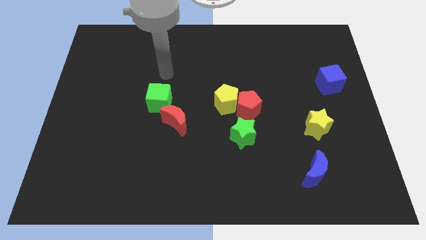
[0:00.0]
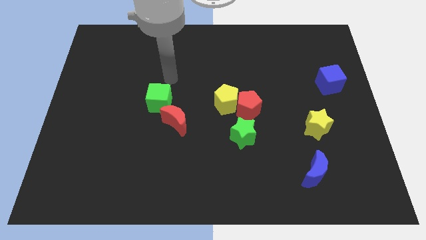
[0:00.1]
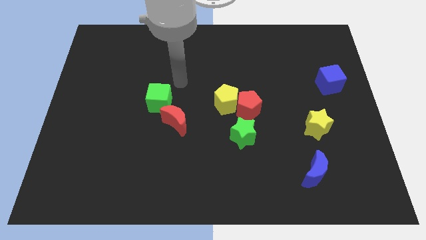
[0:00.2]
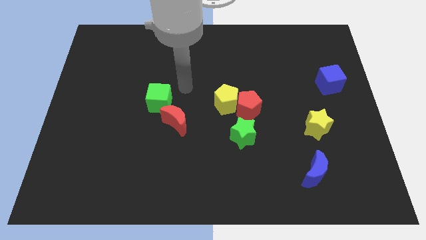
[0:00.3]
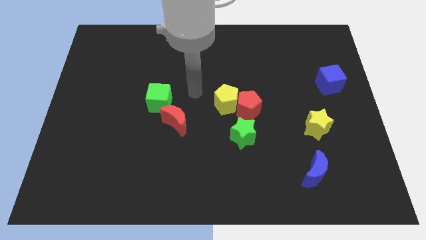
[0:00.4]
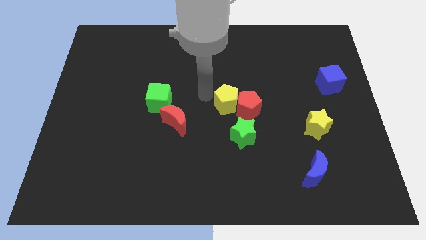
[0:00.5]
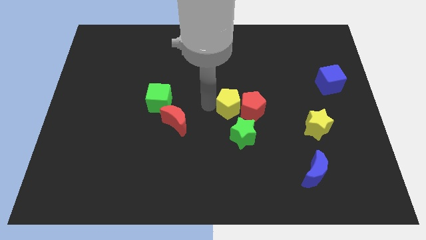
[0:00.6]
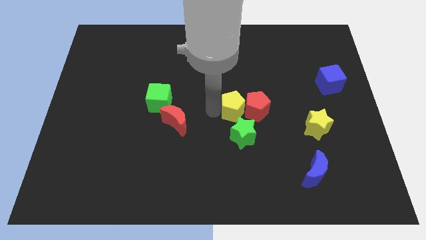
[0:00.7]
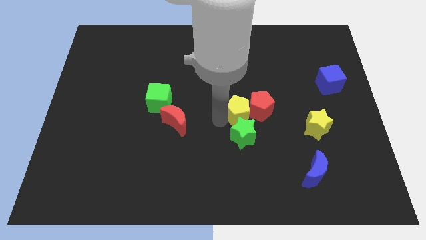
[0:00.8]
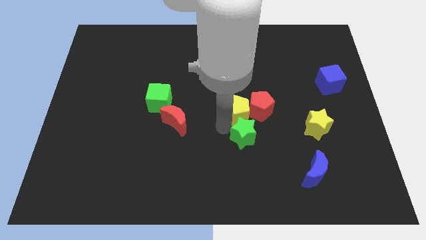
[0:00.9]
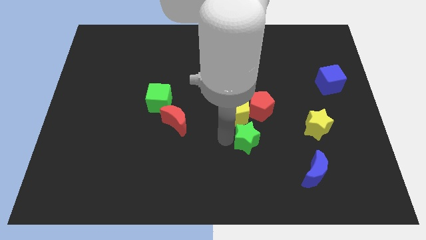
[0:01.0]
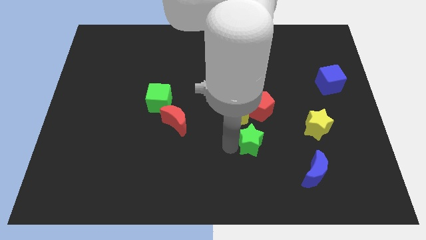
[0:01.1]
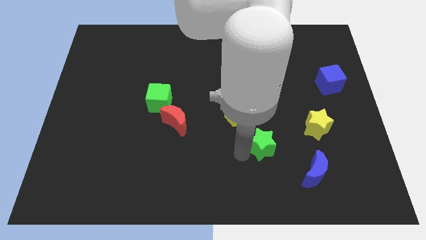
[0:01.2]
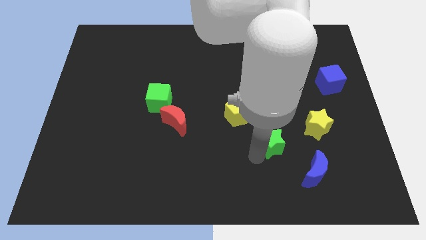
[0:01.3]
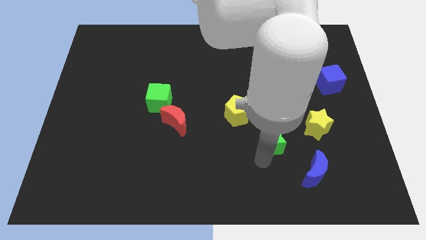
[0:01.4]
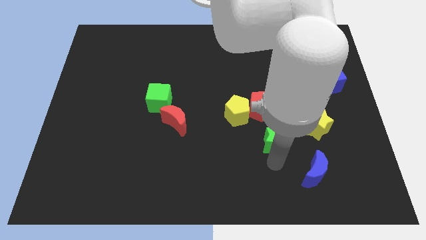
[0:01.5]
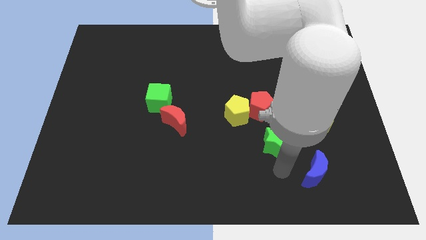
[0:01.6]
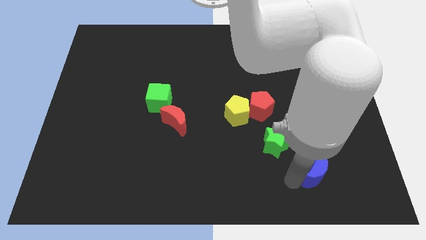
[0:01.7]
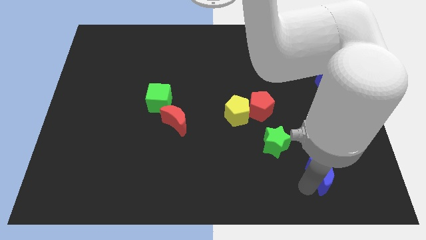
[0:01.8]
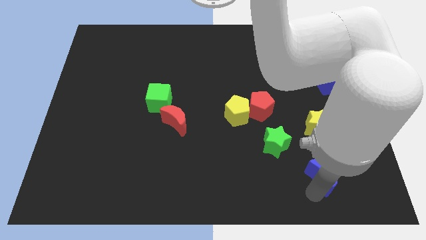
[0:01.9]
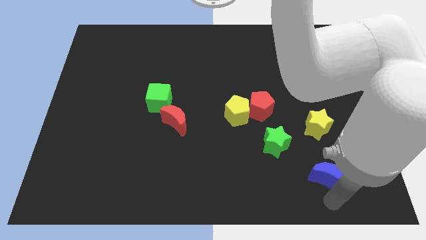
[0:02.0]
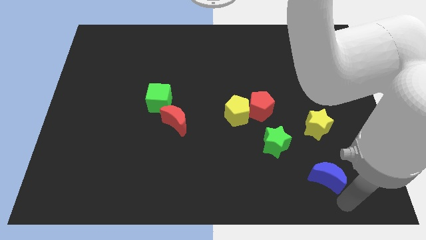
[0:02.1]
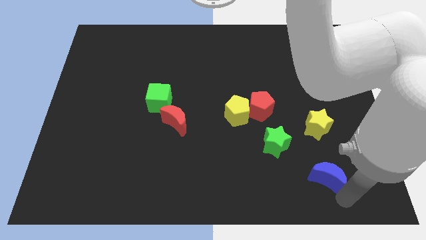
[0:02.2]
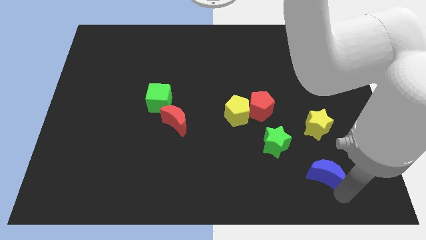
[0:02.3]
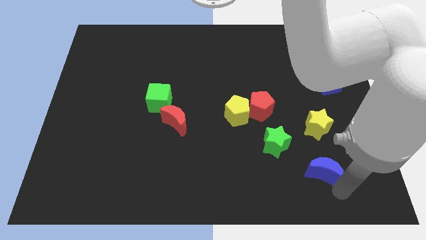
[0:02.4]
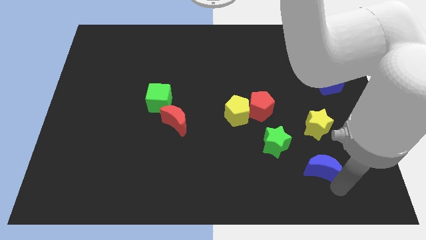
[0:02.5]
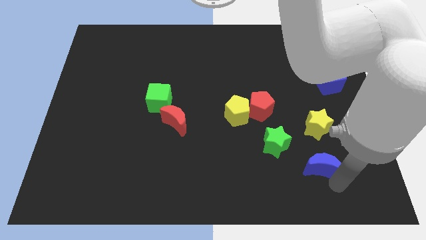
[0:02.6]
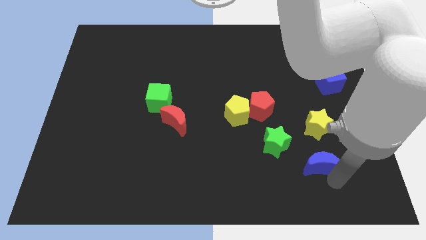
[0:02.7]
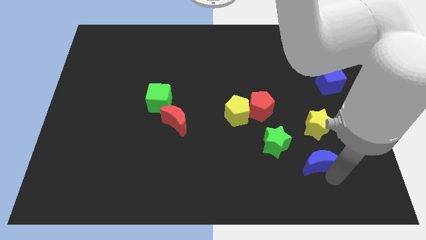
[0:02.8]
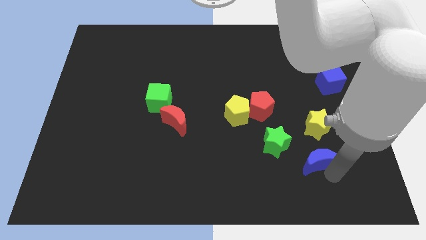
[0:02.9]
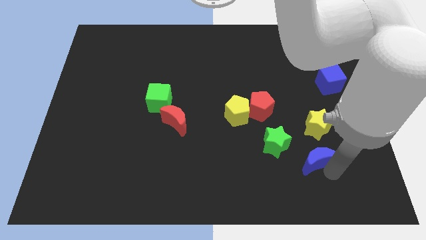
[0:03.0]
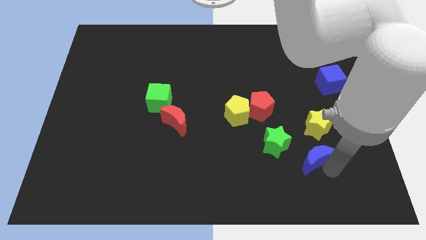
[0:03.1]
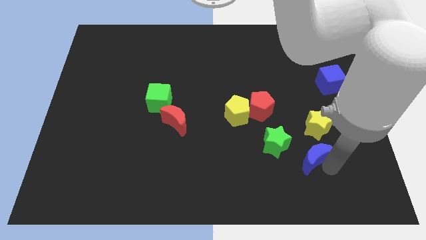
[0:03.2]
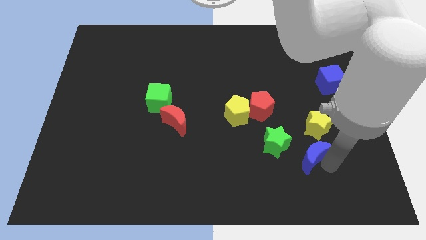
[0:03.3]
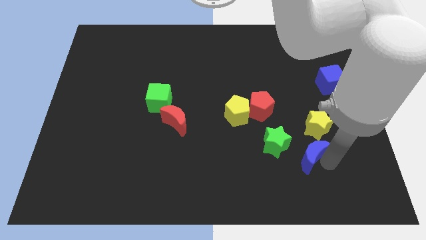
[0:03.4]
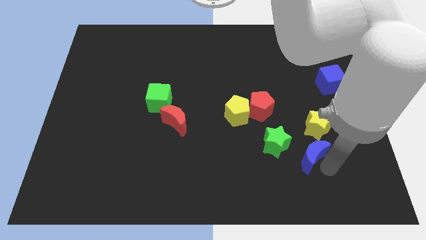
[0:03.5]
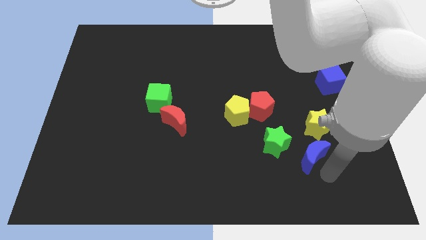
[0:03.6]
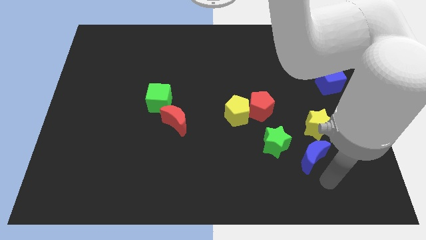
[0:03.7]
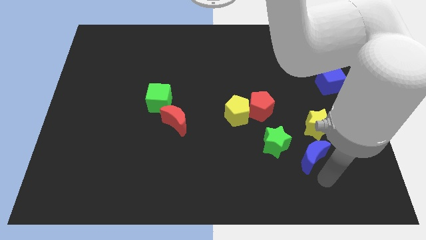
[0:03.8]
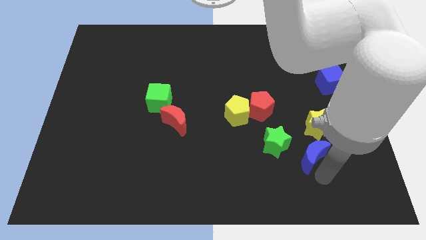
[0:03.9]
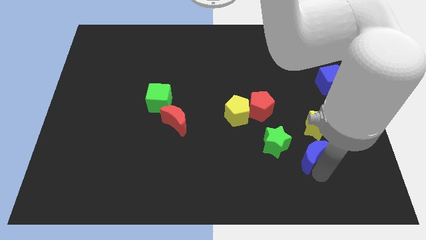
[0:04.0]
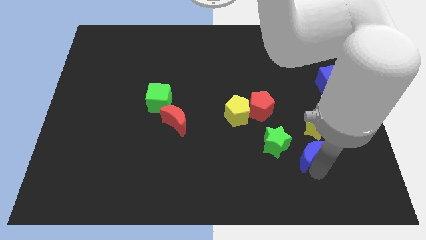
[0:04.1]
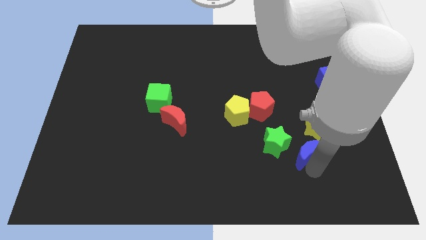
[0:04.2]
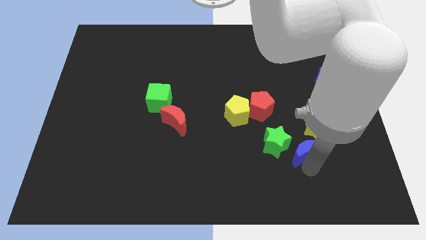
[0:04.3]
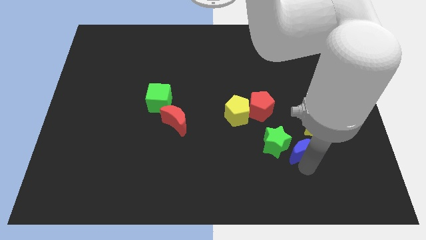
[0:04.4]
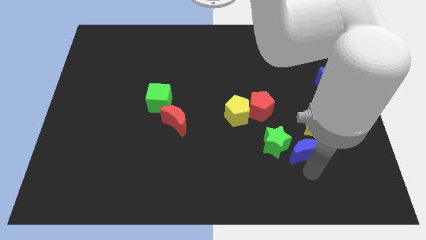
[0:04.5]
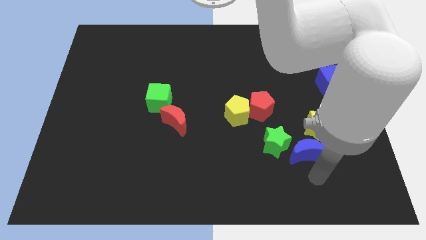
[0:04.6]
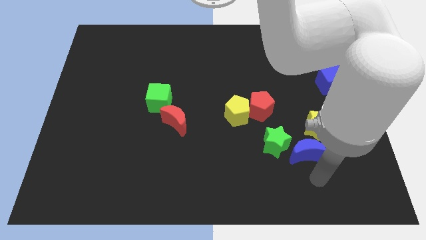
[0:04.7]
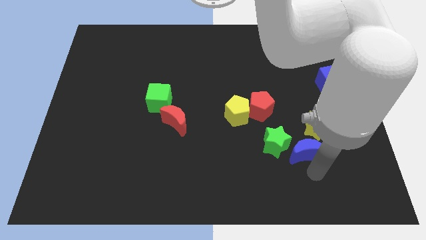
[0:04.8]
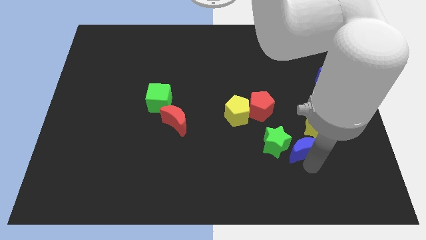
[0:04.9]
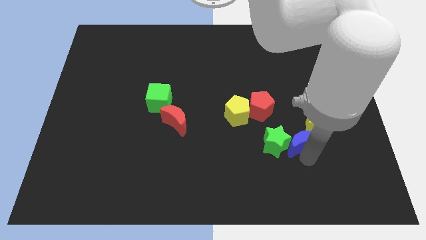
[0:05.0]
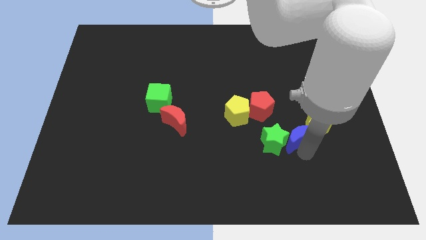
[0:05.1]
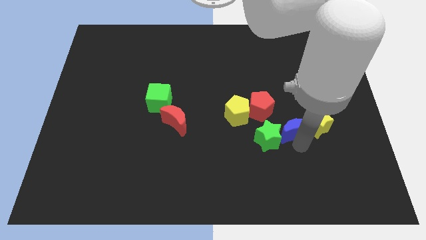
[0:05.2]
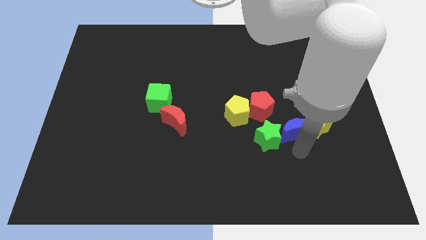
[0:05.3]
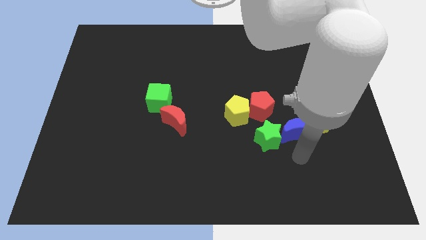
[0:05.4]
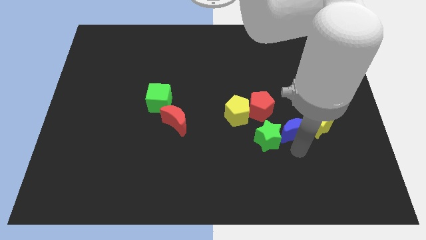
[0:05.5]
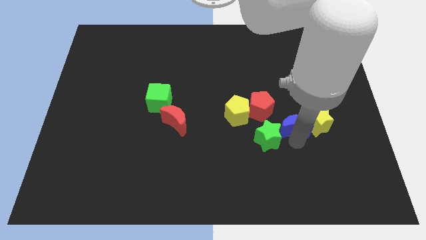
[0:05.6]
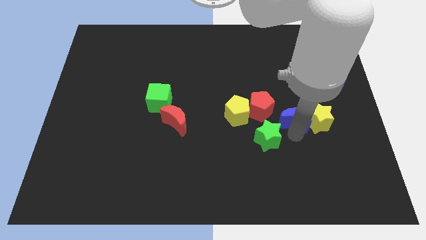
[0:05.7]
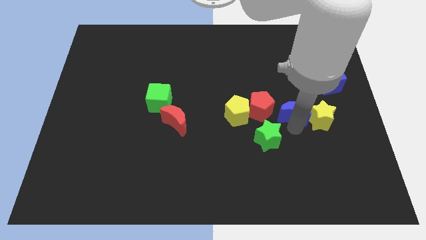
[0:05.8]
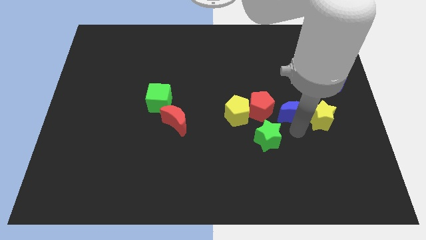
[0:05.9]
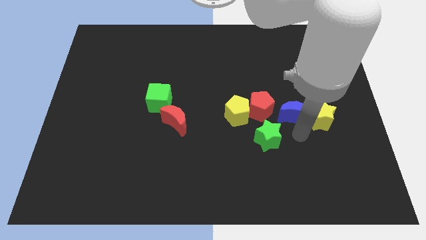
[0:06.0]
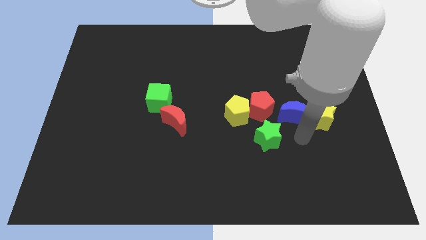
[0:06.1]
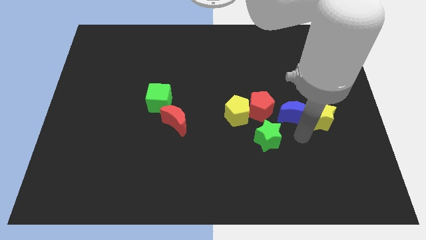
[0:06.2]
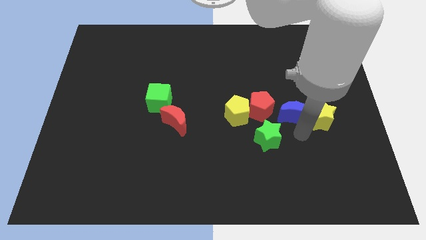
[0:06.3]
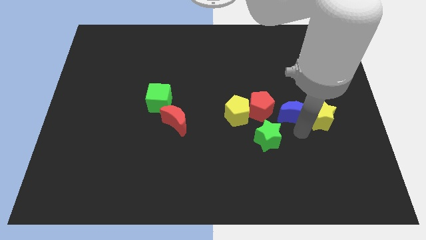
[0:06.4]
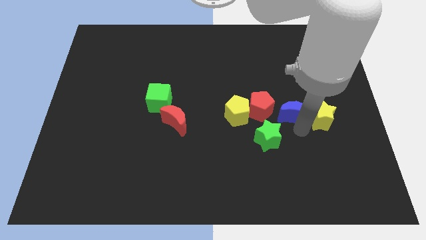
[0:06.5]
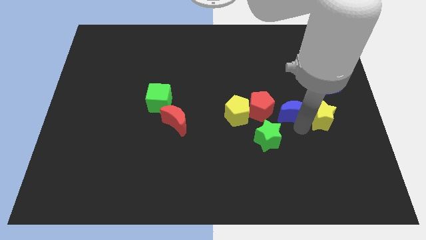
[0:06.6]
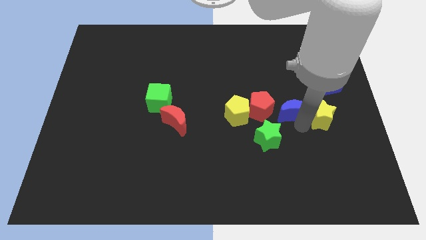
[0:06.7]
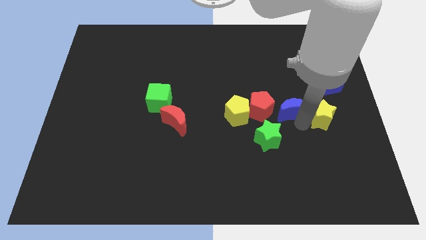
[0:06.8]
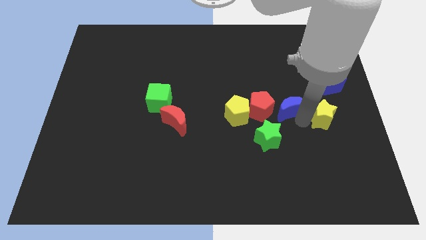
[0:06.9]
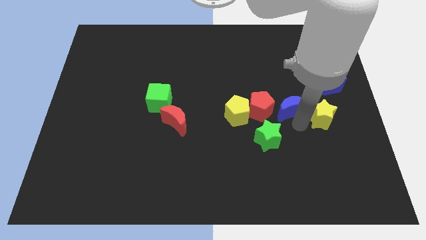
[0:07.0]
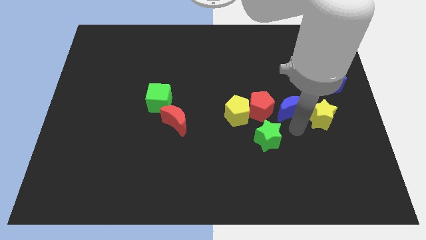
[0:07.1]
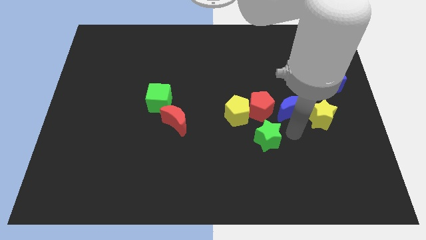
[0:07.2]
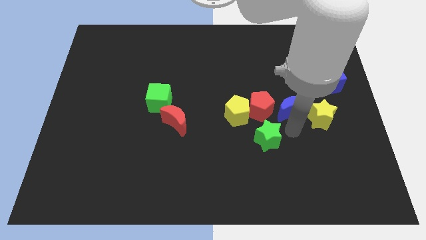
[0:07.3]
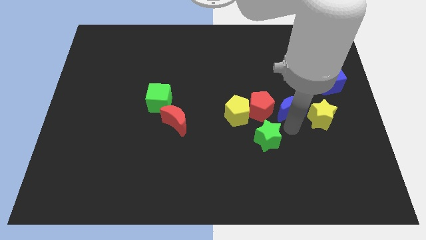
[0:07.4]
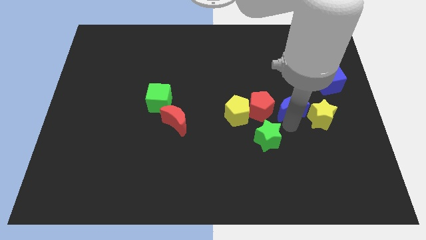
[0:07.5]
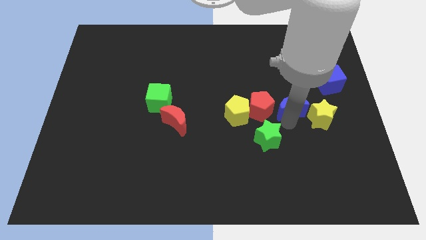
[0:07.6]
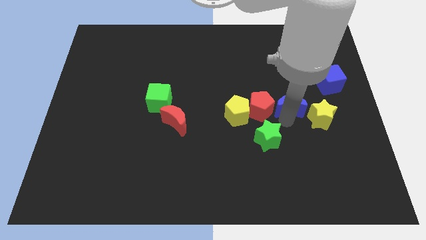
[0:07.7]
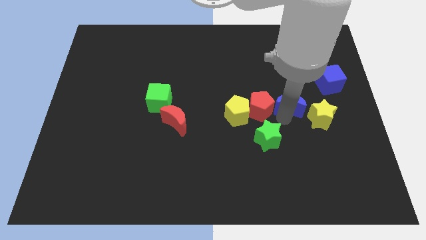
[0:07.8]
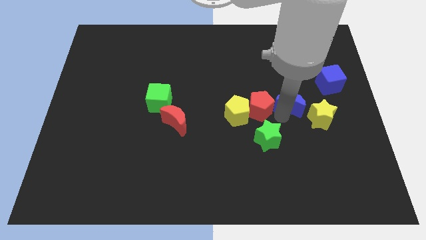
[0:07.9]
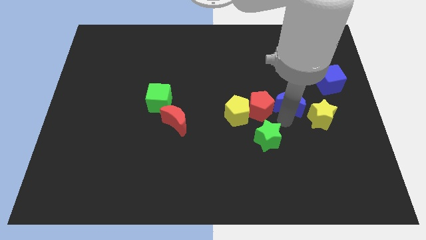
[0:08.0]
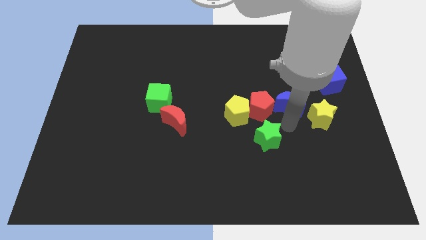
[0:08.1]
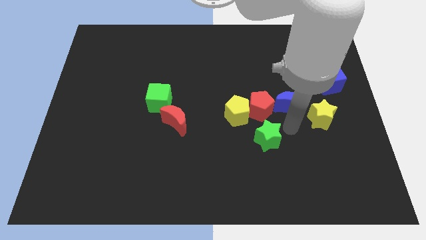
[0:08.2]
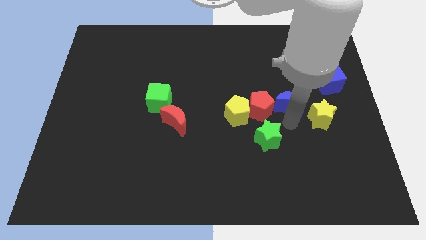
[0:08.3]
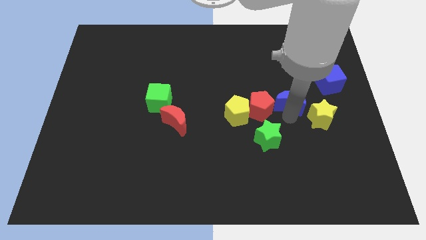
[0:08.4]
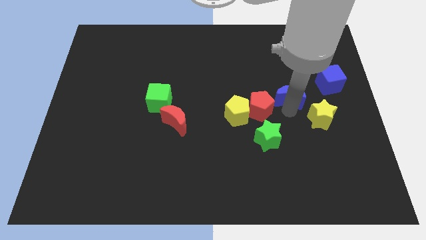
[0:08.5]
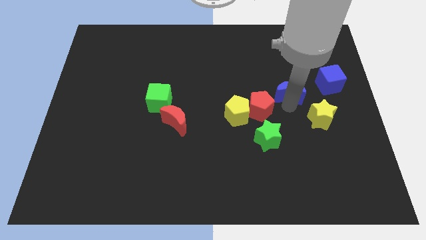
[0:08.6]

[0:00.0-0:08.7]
move the blue moon upwards
